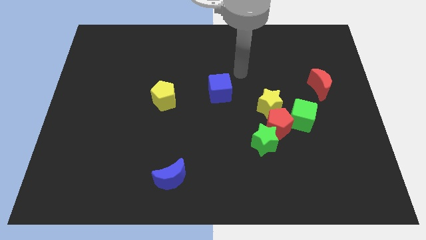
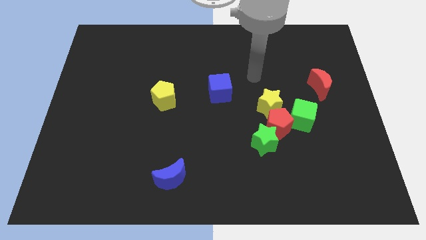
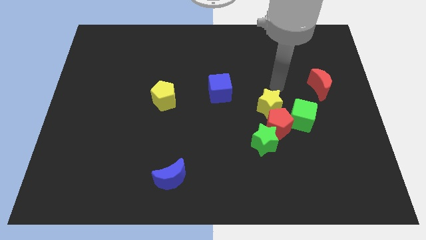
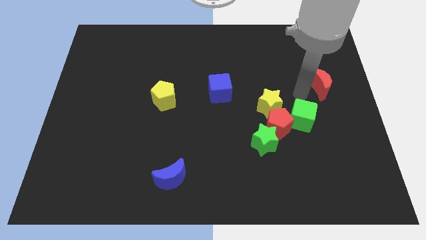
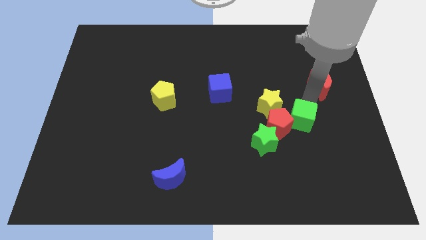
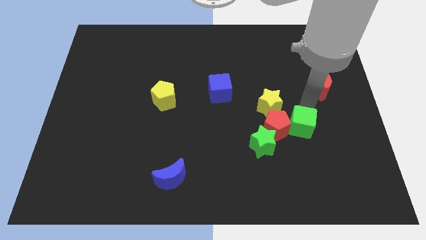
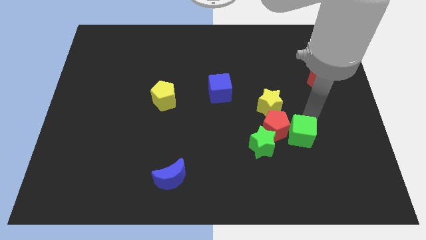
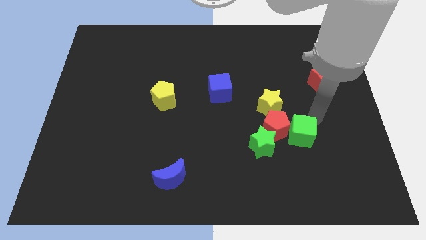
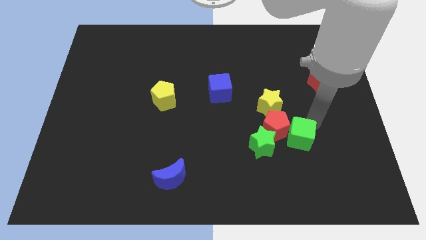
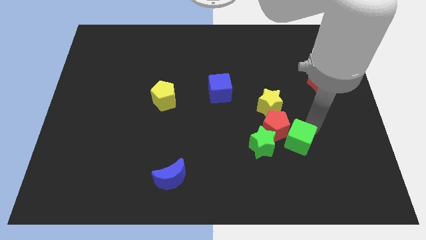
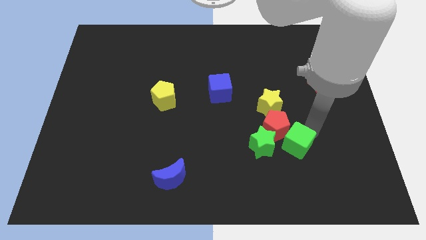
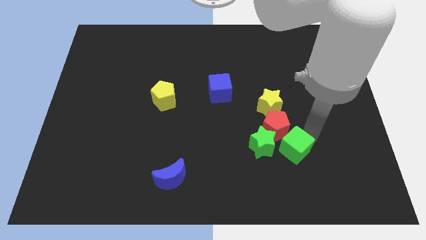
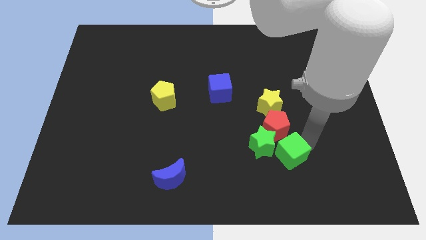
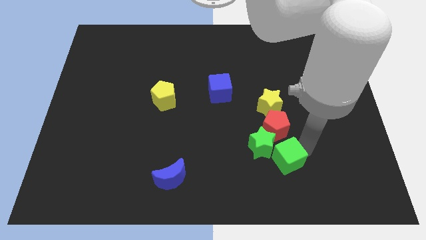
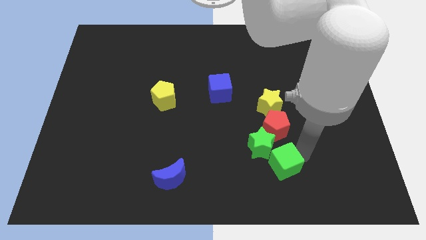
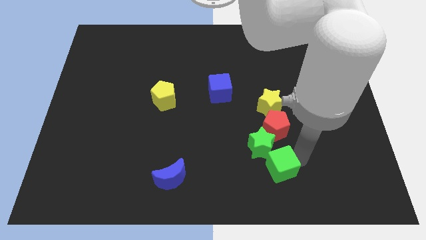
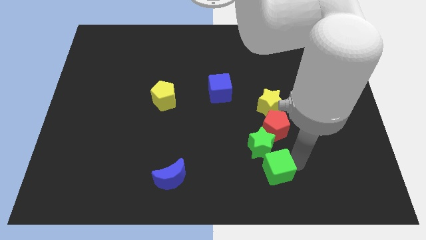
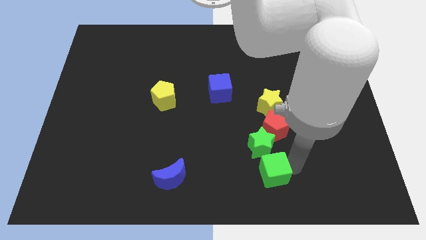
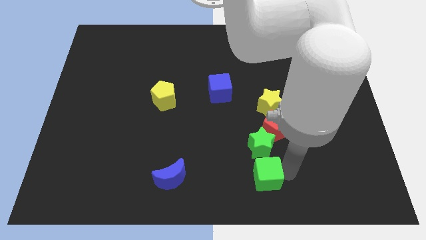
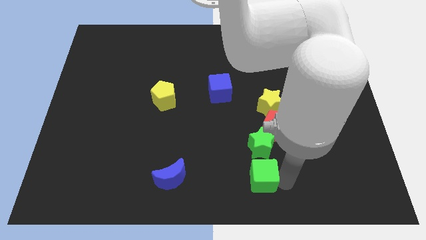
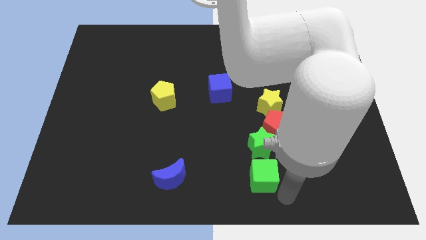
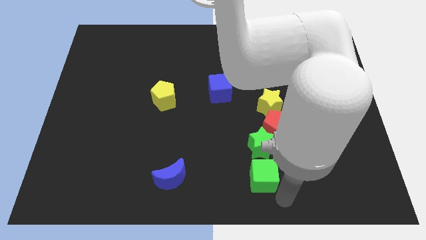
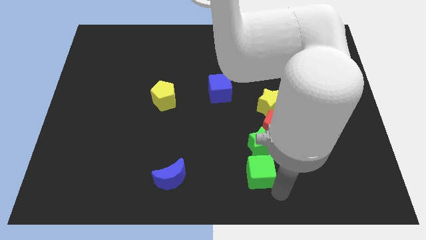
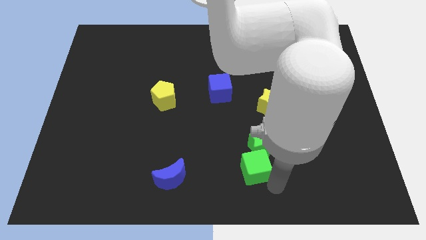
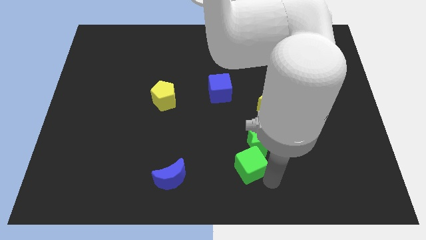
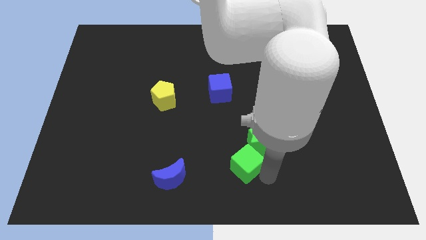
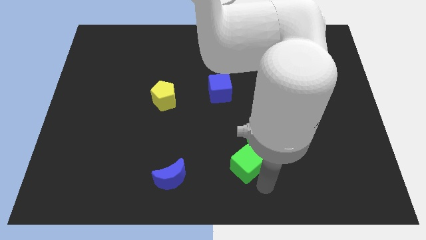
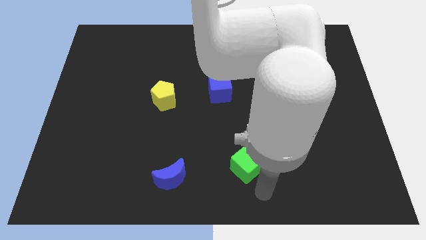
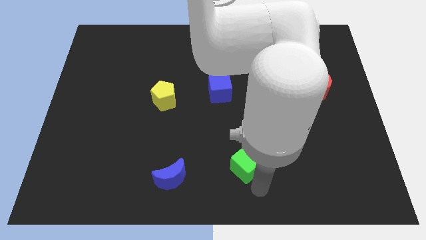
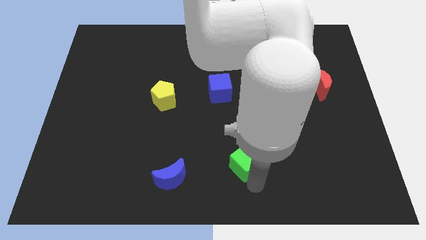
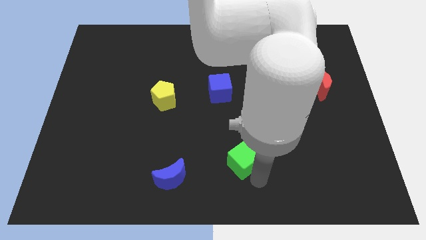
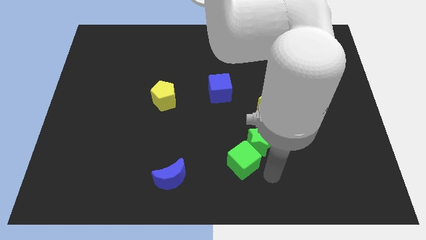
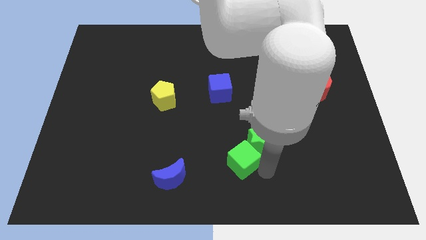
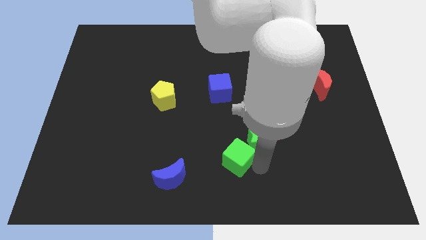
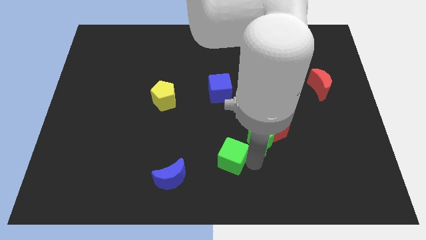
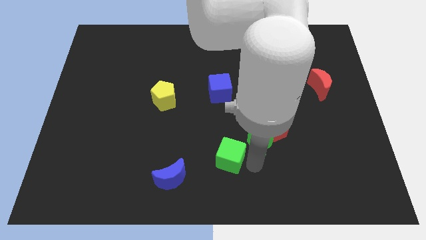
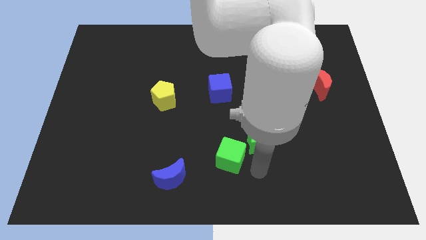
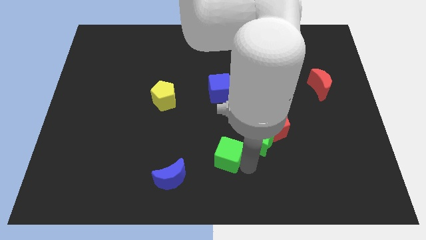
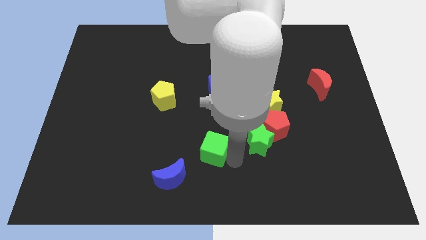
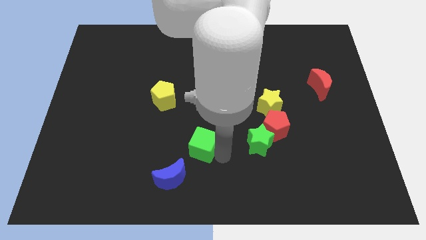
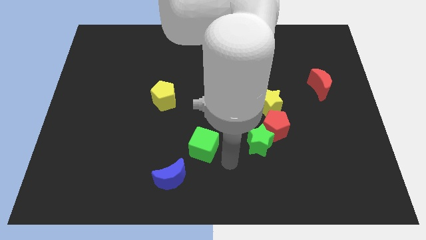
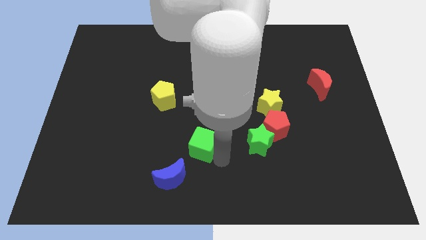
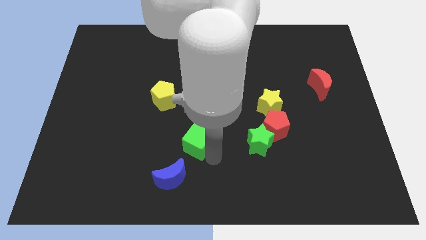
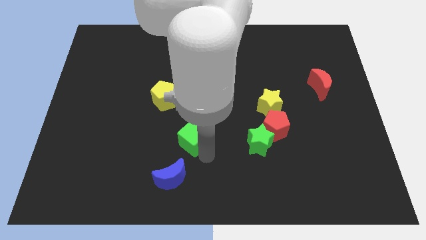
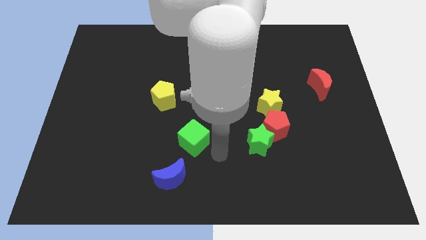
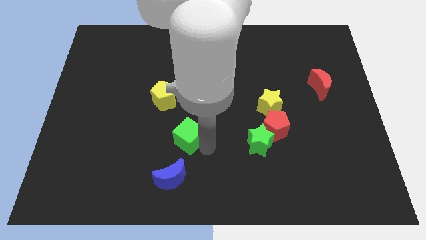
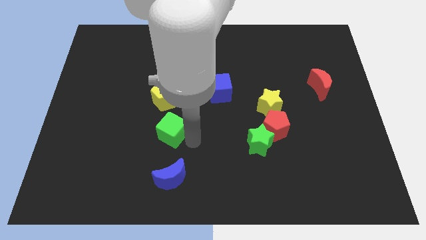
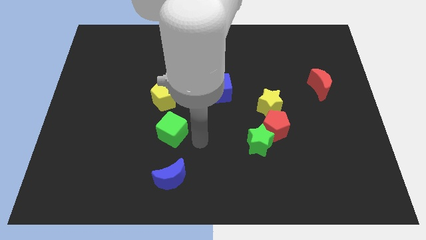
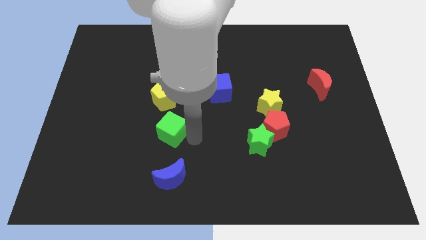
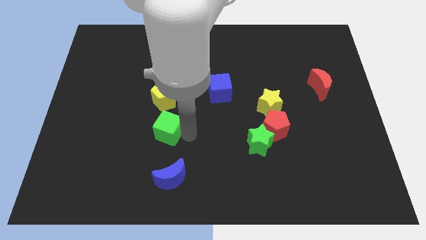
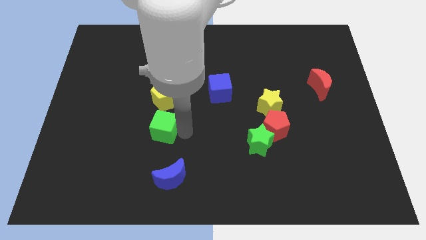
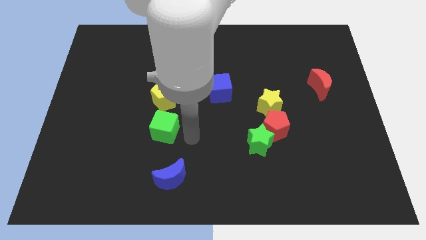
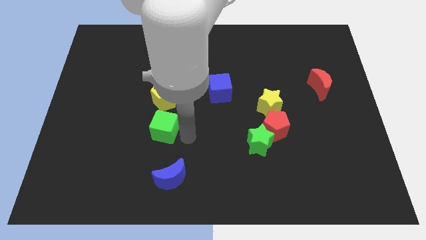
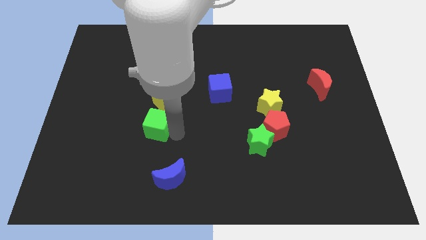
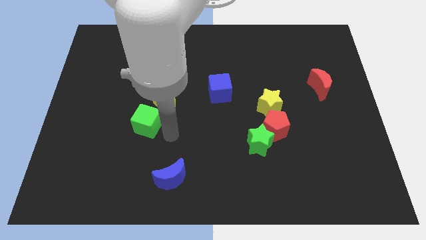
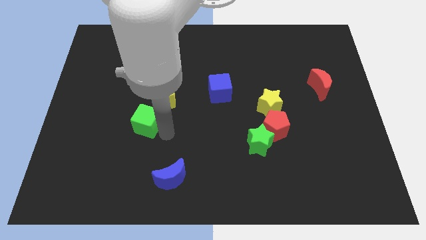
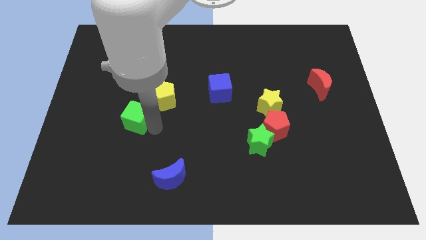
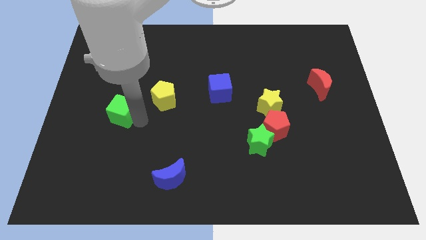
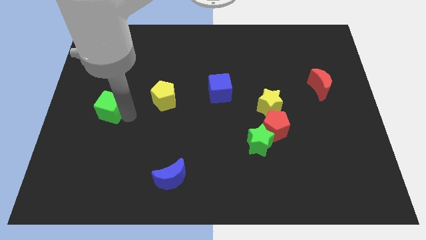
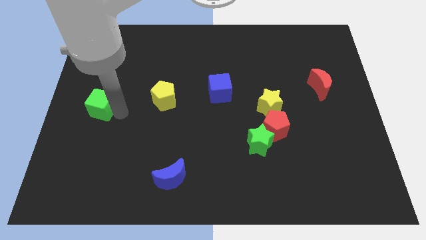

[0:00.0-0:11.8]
move the green cube to the center left
